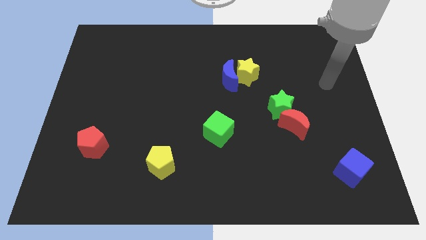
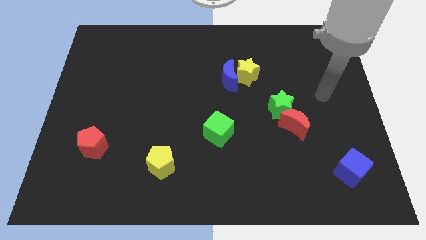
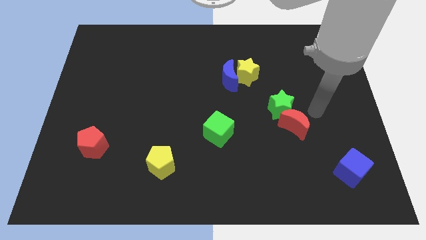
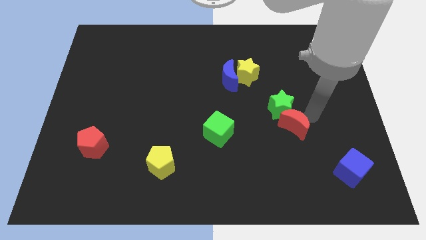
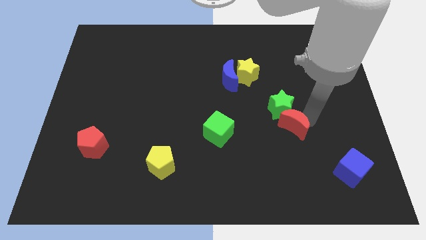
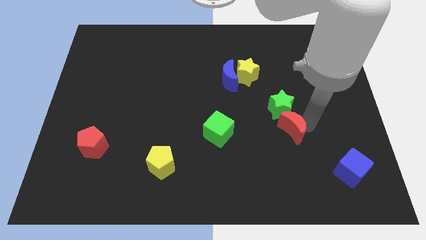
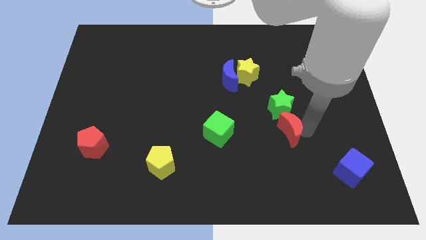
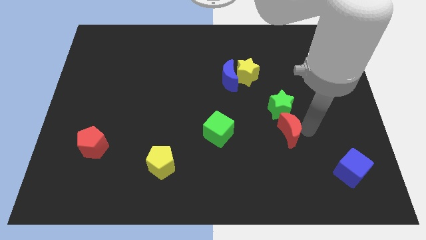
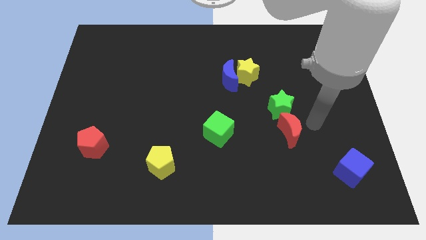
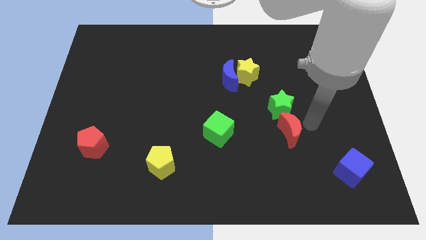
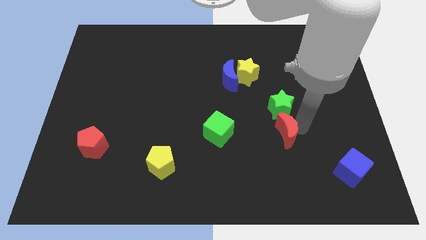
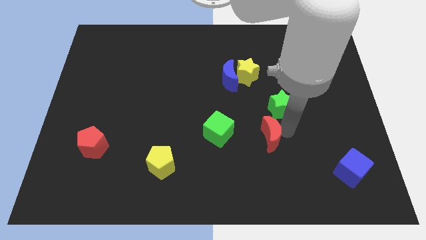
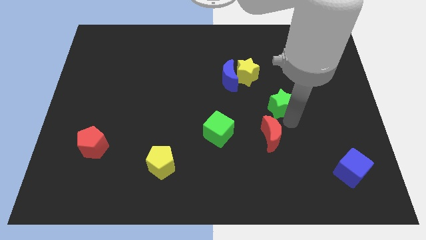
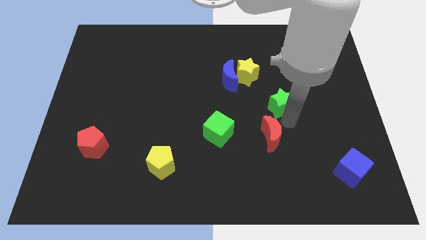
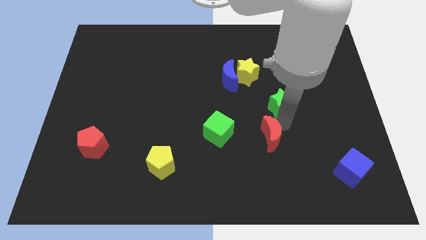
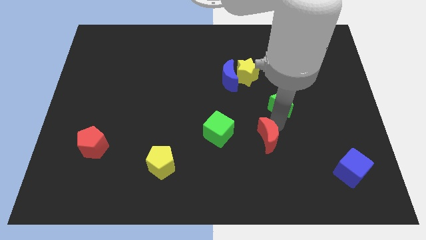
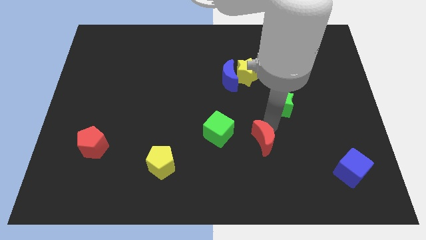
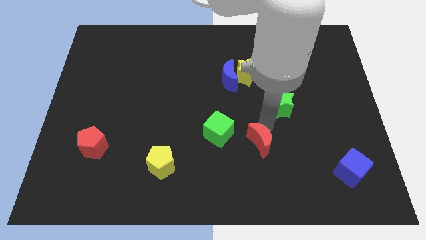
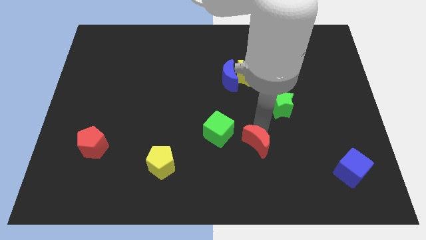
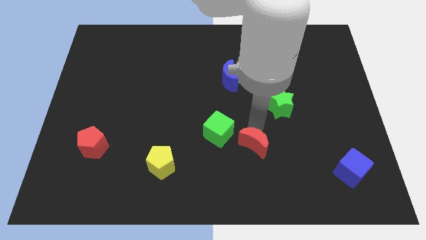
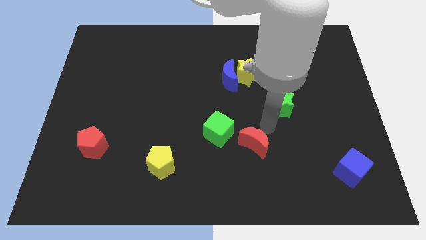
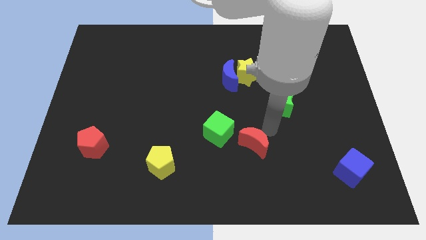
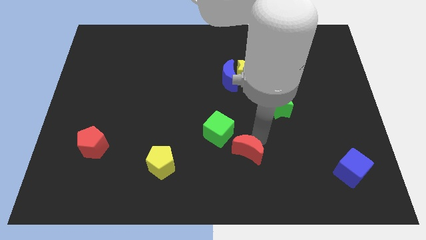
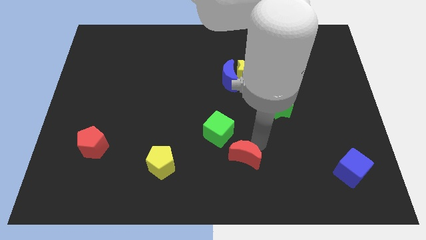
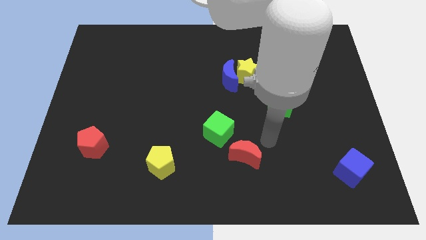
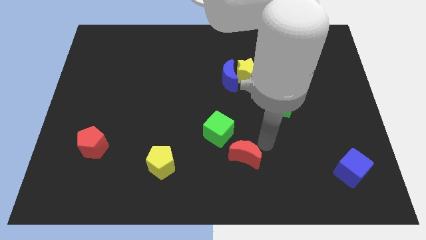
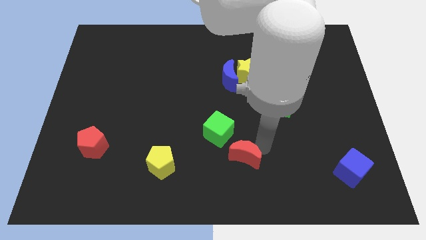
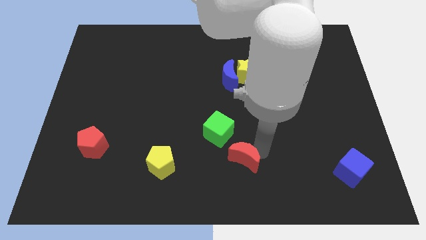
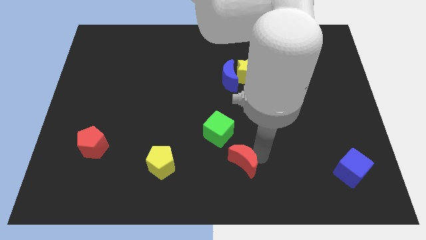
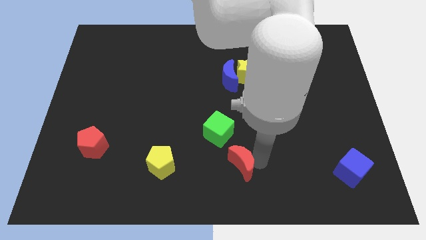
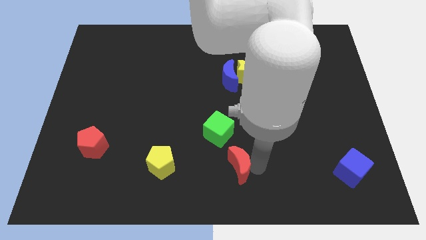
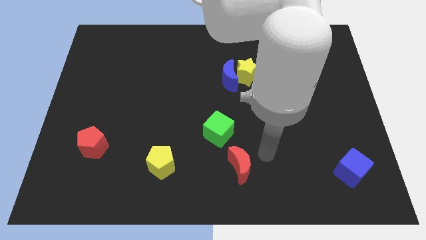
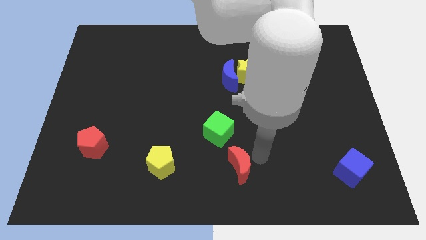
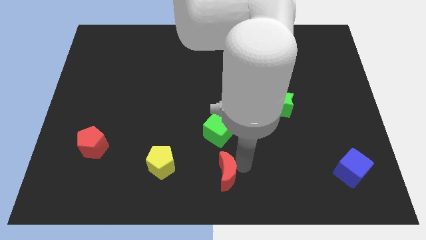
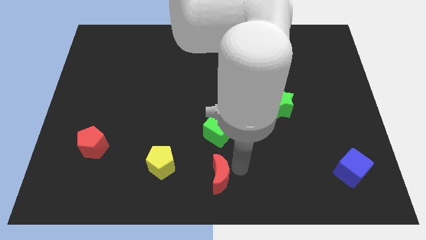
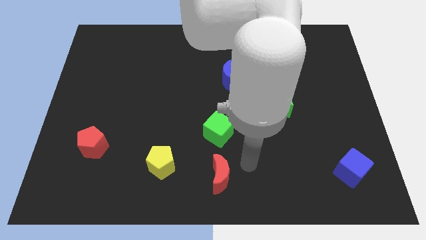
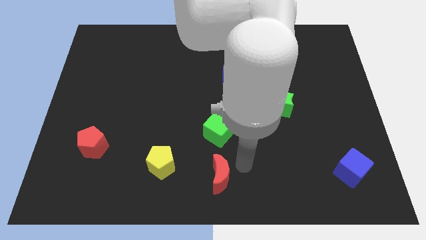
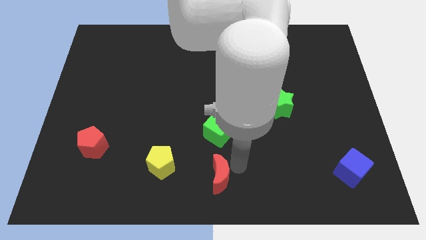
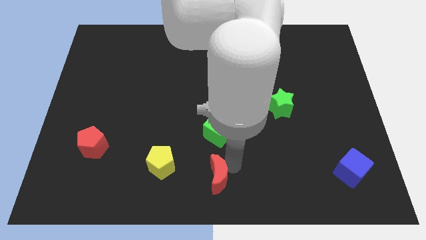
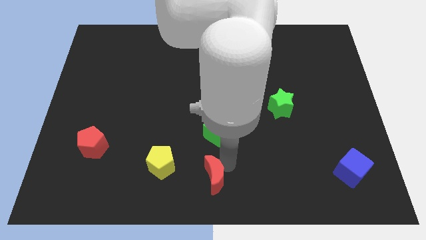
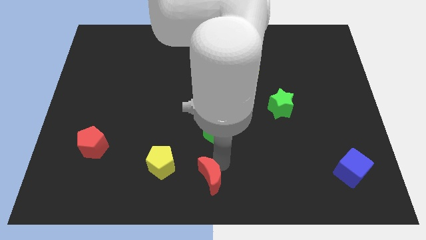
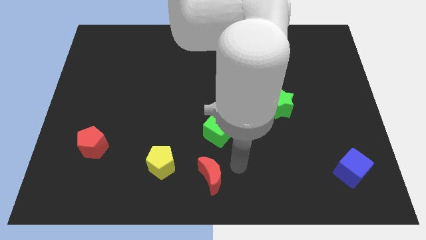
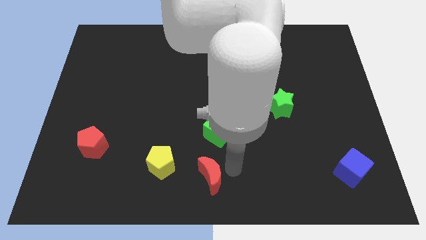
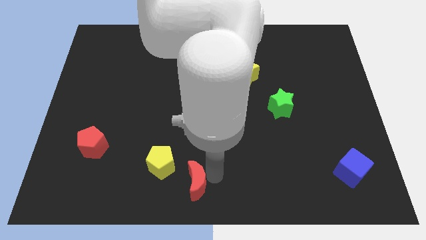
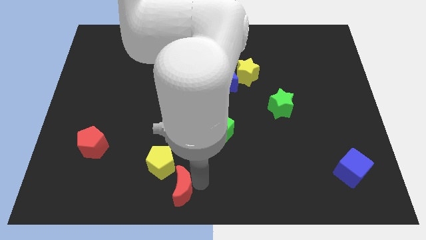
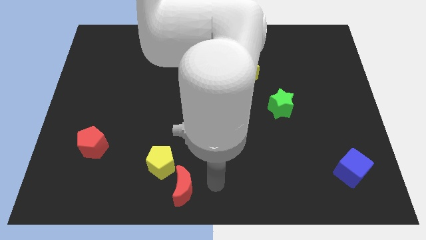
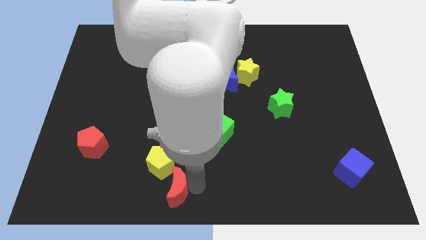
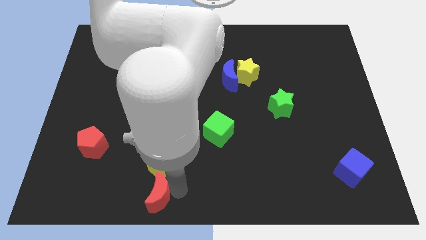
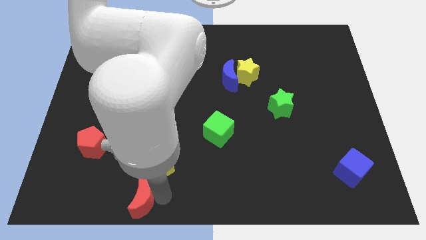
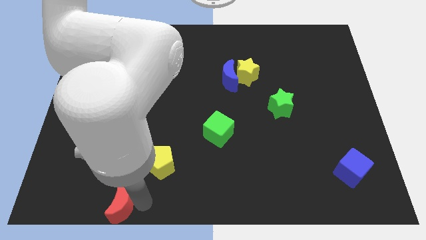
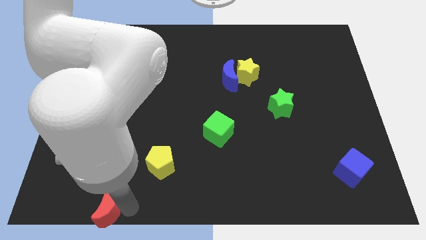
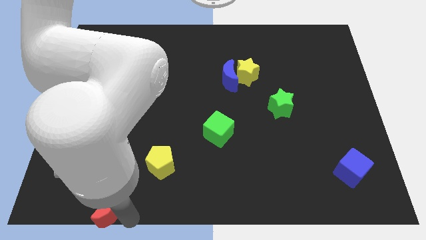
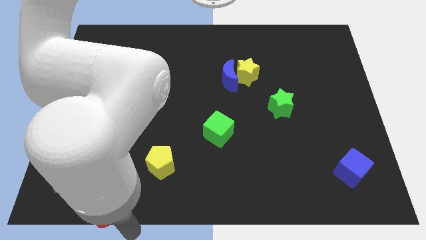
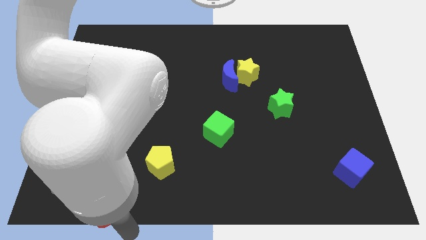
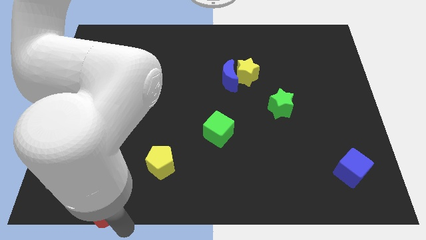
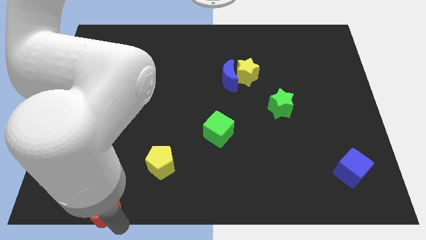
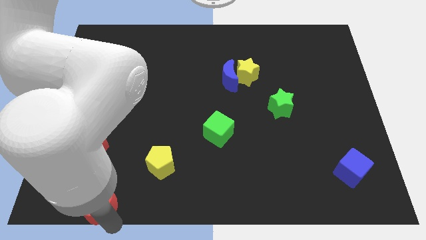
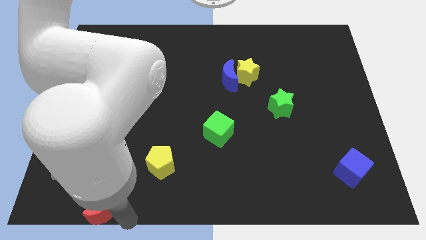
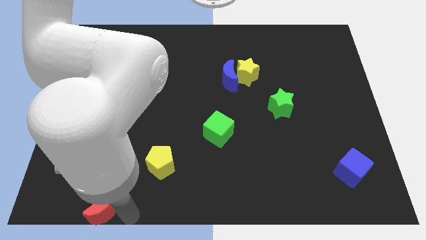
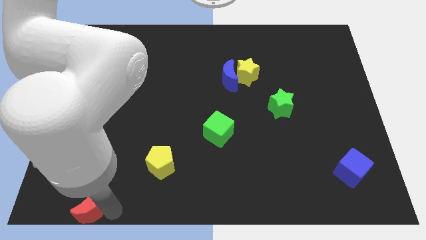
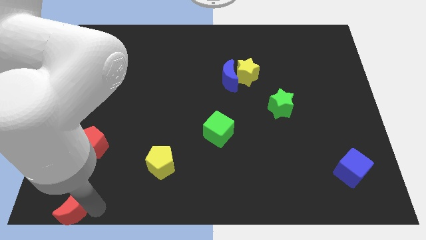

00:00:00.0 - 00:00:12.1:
move the red moon to the bottom left corner

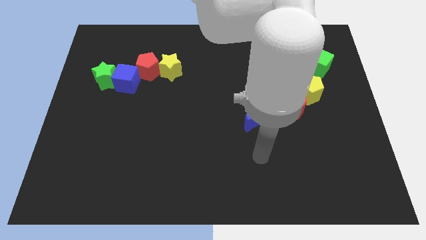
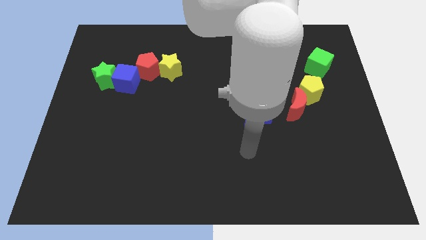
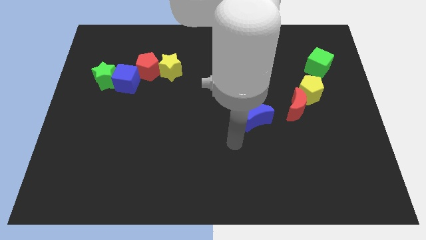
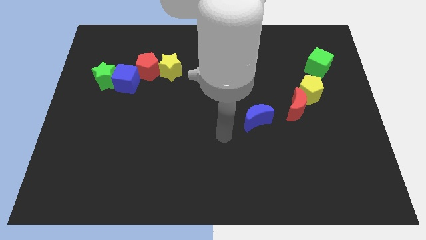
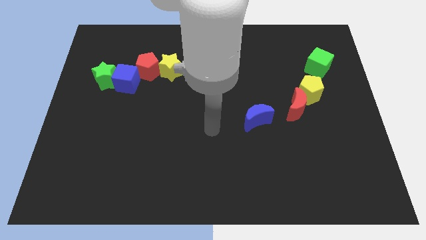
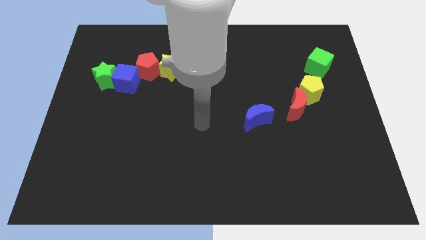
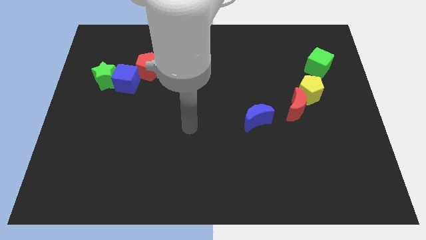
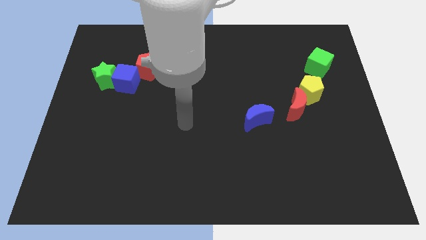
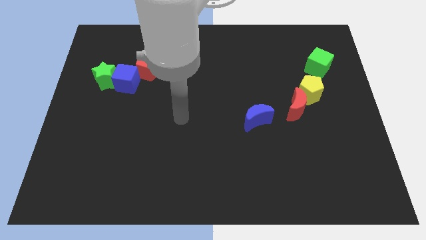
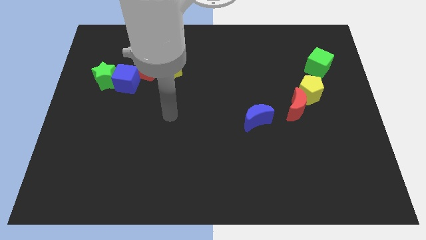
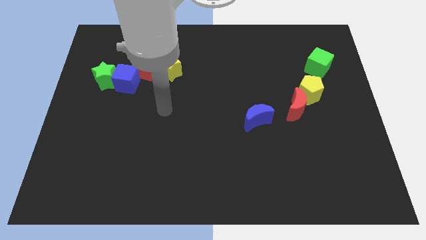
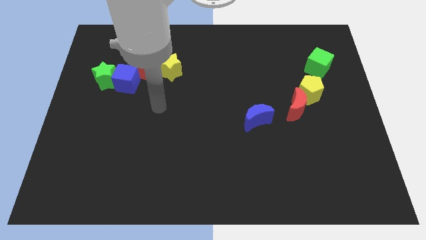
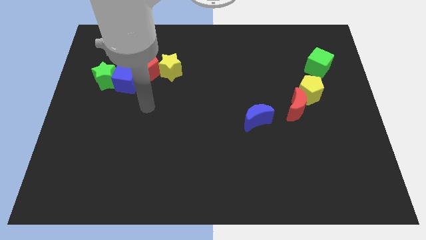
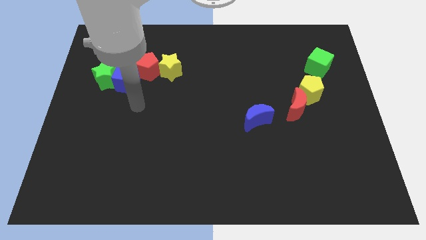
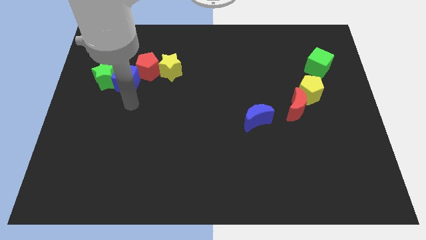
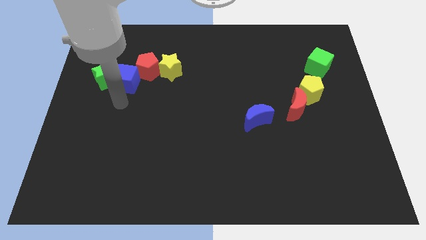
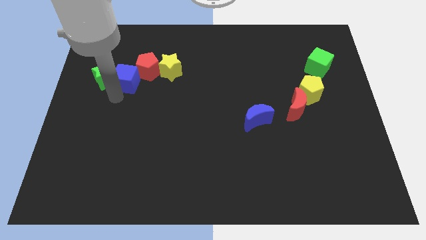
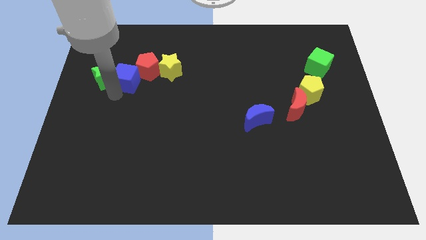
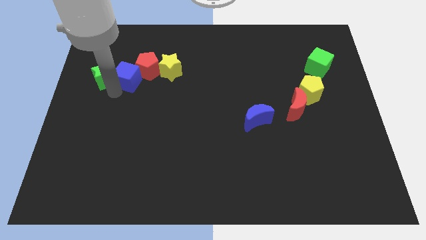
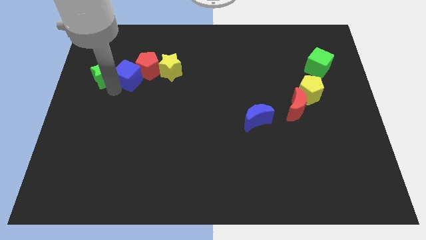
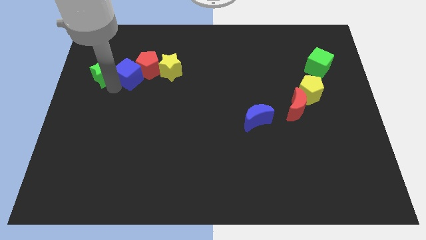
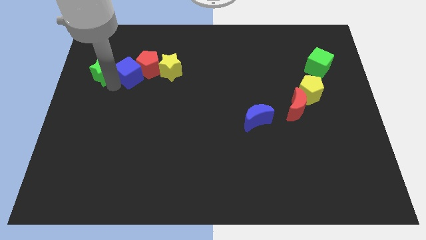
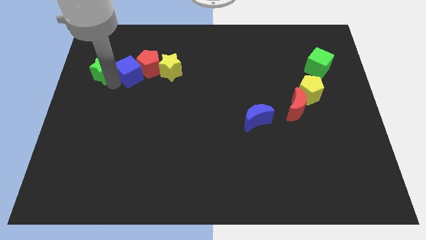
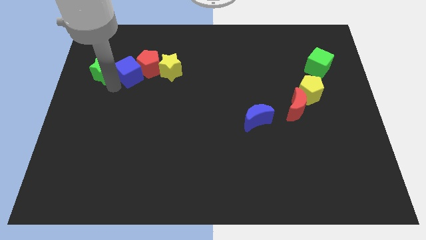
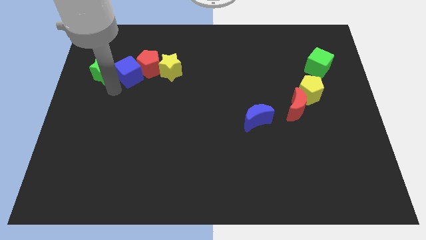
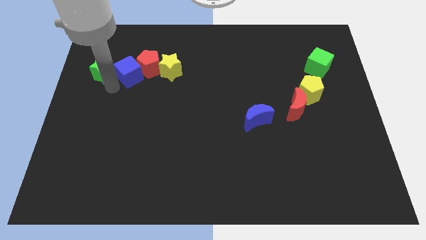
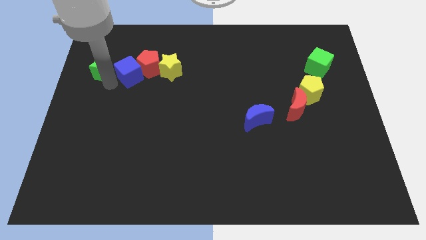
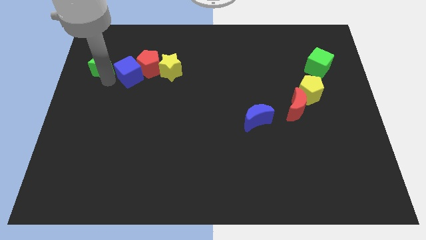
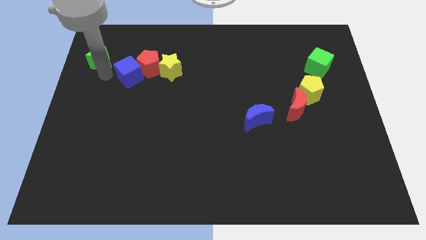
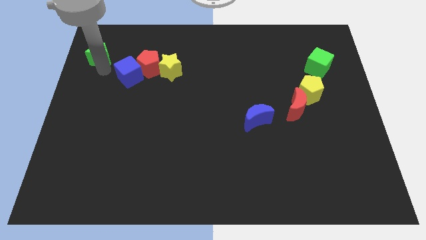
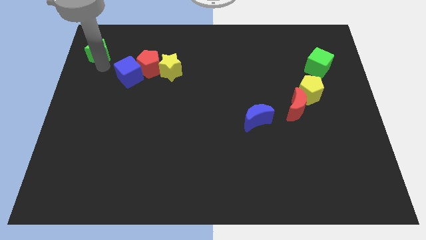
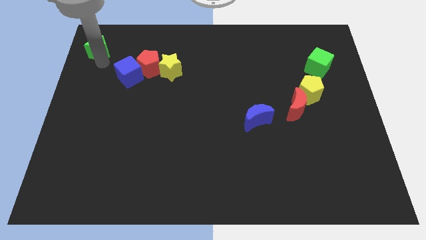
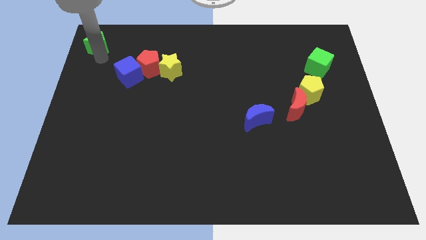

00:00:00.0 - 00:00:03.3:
slide the green star to the upper left corner
